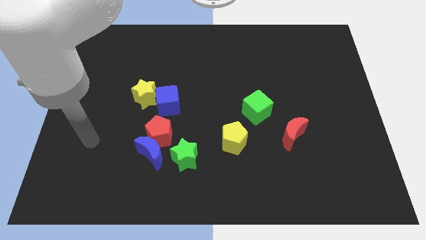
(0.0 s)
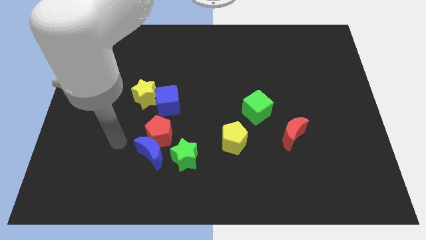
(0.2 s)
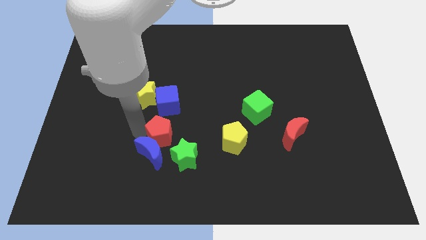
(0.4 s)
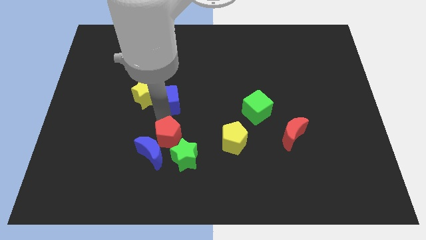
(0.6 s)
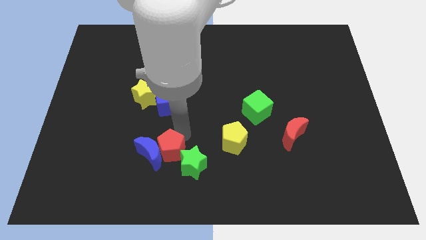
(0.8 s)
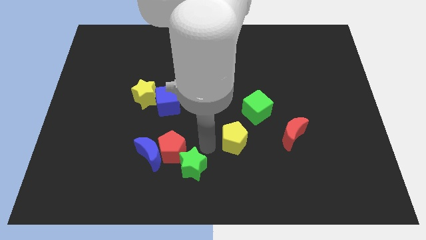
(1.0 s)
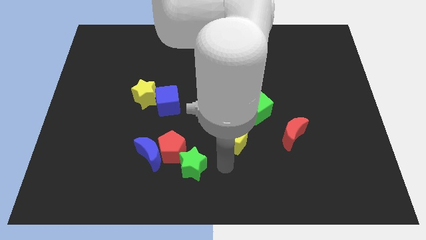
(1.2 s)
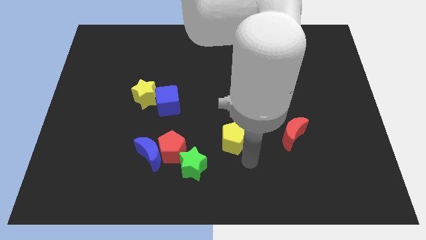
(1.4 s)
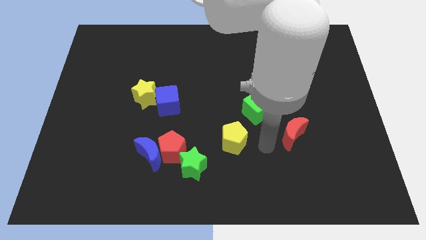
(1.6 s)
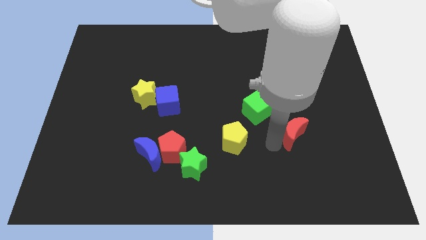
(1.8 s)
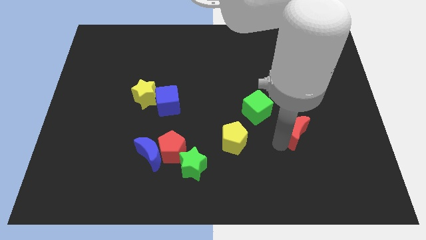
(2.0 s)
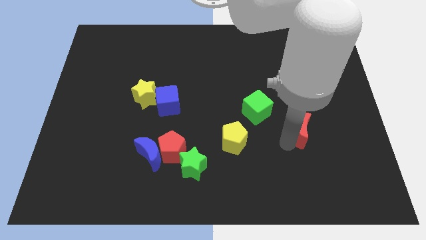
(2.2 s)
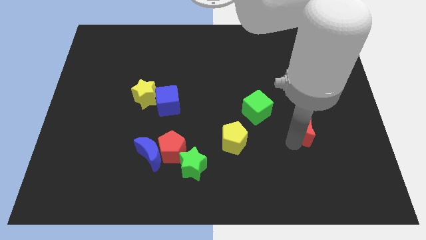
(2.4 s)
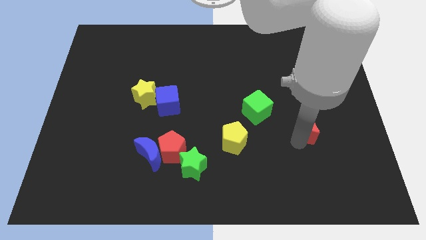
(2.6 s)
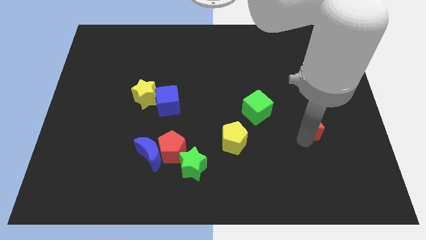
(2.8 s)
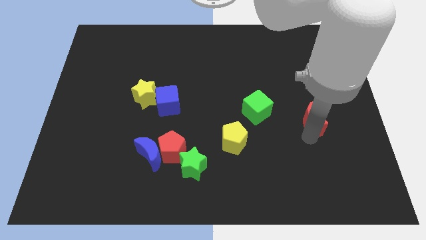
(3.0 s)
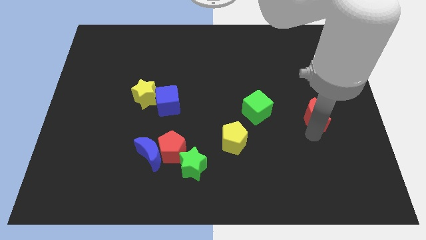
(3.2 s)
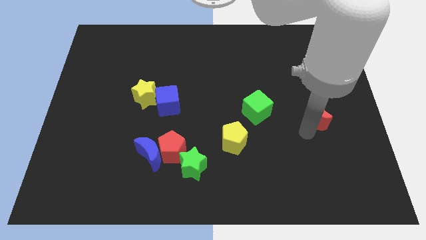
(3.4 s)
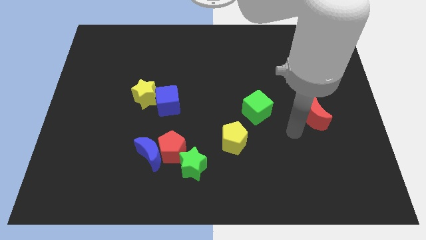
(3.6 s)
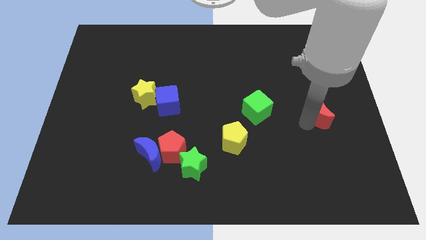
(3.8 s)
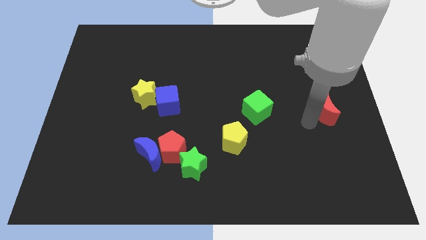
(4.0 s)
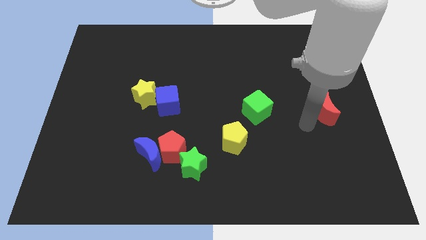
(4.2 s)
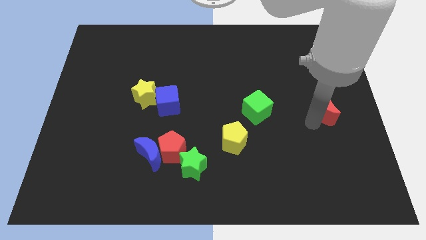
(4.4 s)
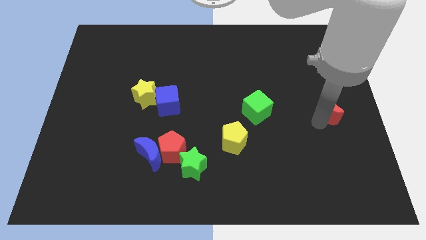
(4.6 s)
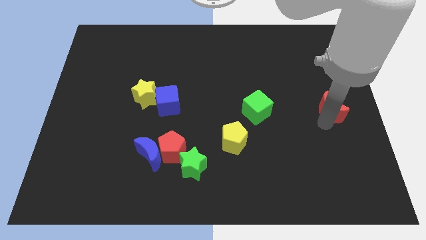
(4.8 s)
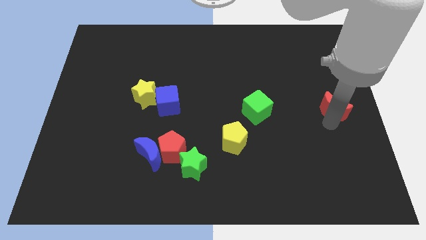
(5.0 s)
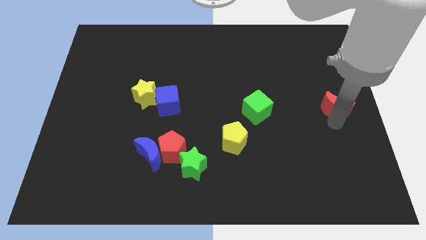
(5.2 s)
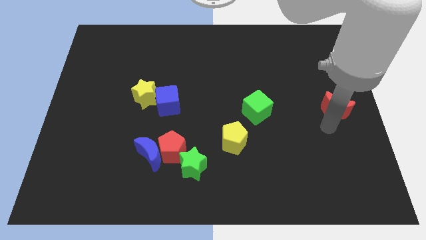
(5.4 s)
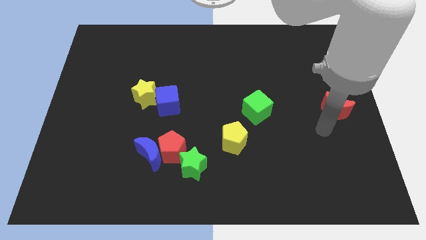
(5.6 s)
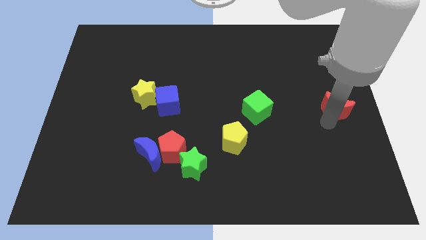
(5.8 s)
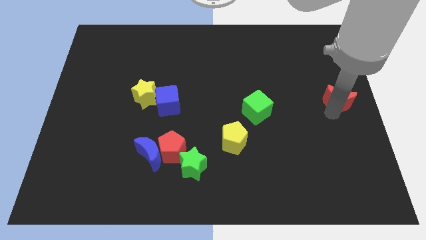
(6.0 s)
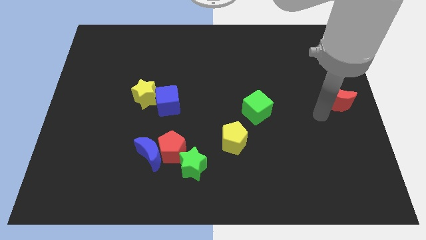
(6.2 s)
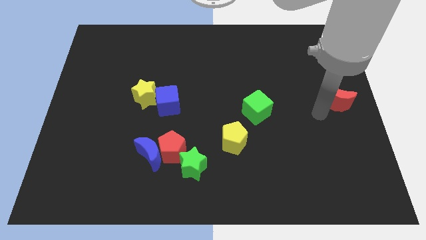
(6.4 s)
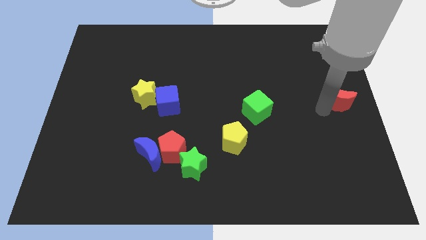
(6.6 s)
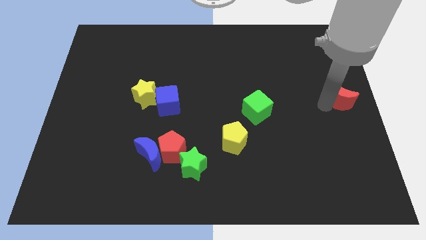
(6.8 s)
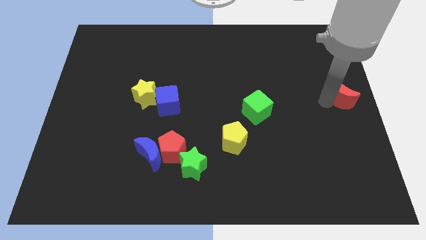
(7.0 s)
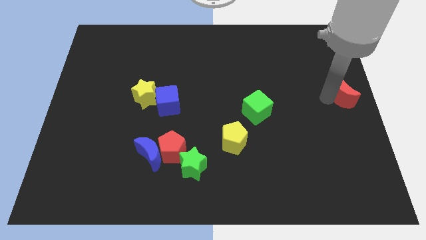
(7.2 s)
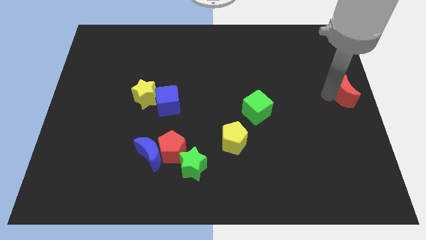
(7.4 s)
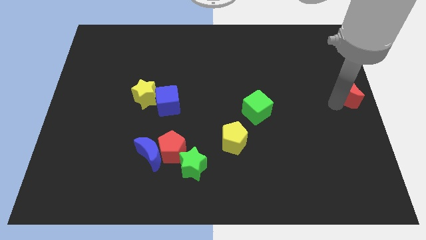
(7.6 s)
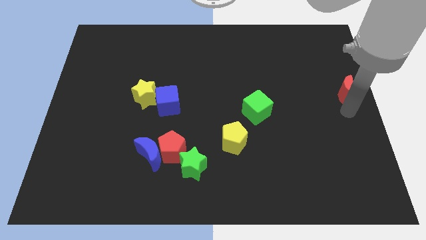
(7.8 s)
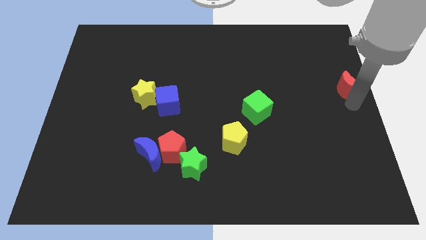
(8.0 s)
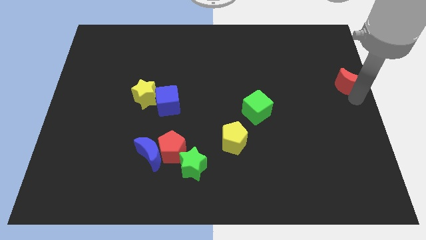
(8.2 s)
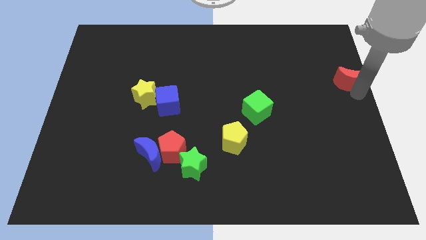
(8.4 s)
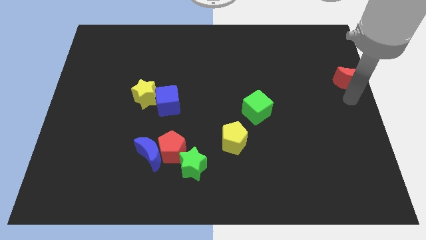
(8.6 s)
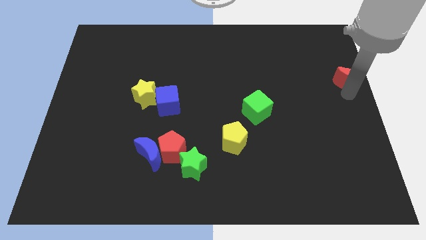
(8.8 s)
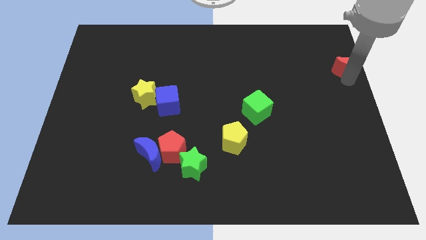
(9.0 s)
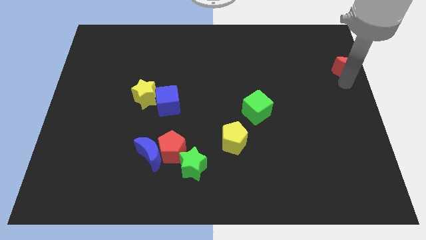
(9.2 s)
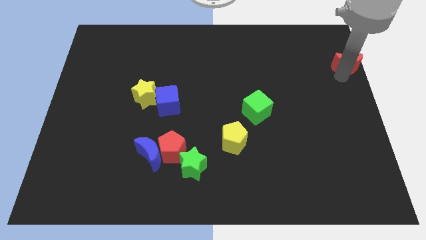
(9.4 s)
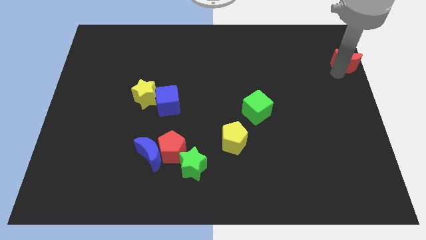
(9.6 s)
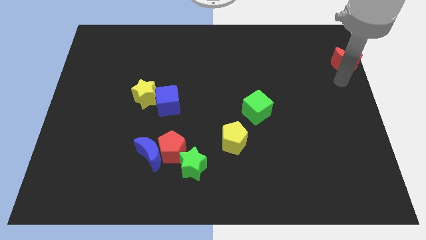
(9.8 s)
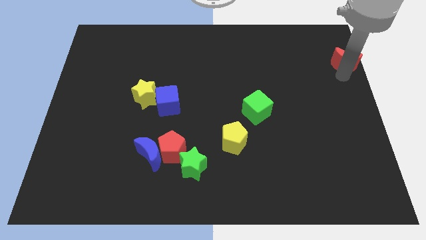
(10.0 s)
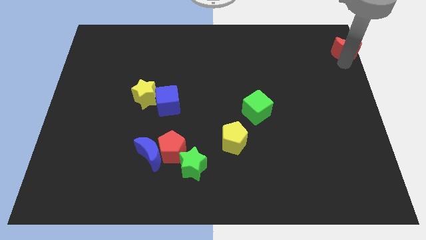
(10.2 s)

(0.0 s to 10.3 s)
push the red moon to the top right corner

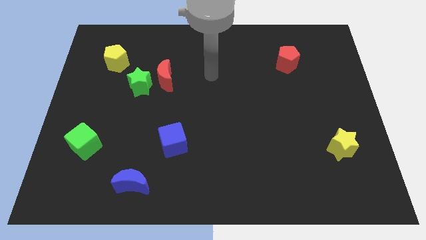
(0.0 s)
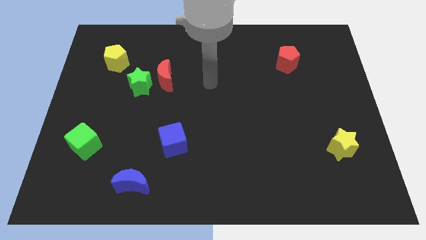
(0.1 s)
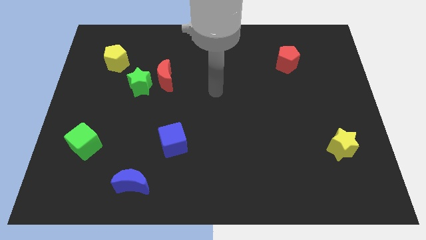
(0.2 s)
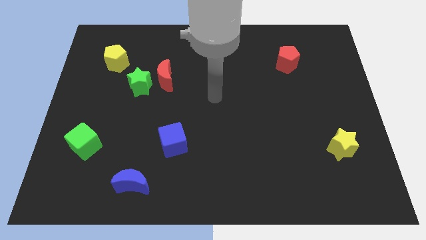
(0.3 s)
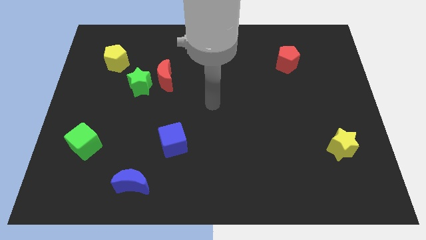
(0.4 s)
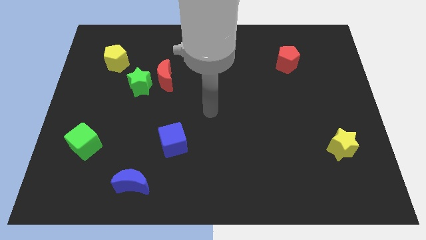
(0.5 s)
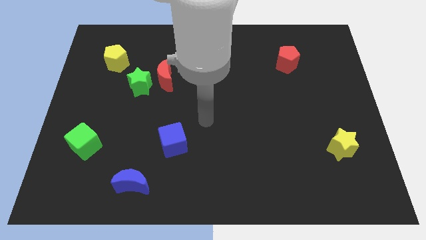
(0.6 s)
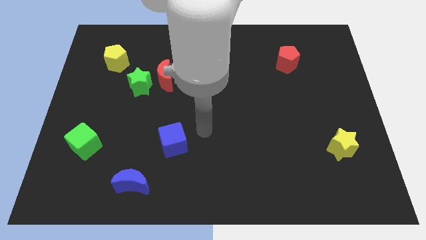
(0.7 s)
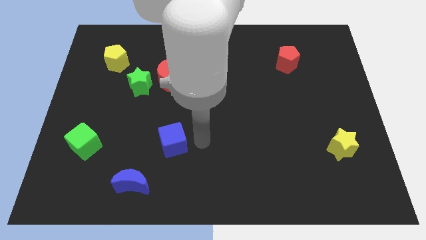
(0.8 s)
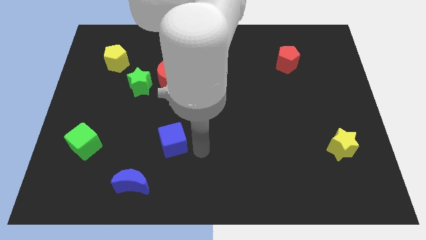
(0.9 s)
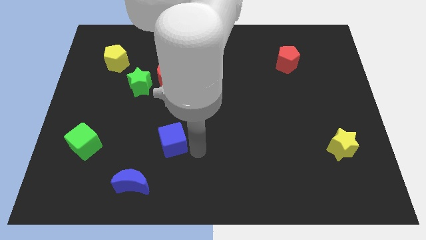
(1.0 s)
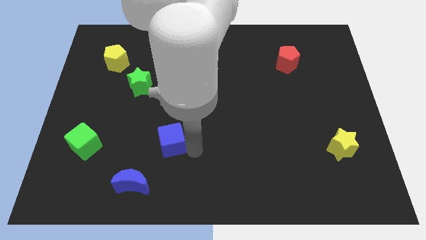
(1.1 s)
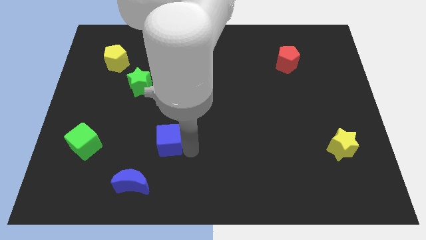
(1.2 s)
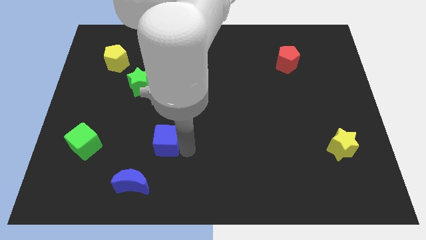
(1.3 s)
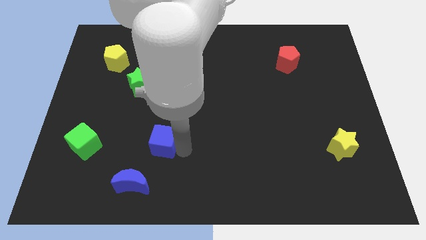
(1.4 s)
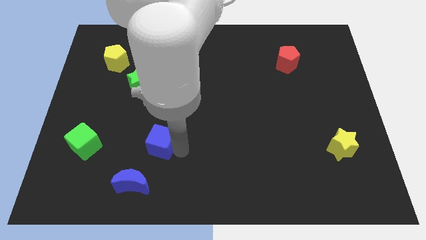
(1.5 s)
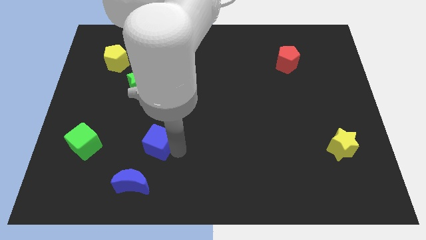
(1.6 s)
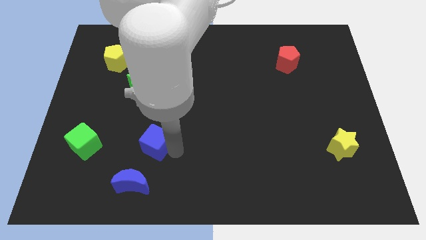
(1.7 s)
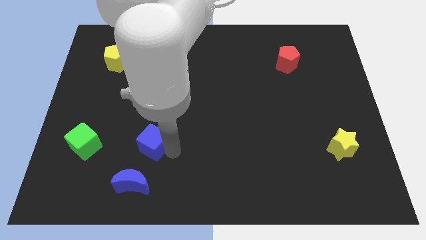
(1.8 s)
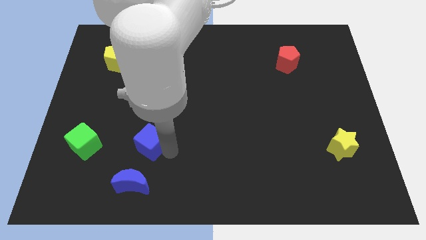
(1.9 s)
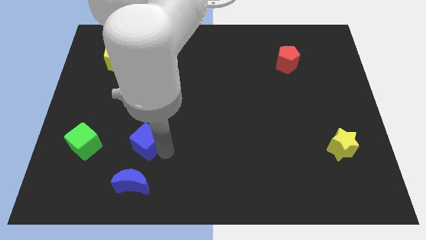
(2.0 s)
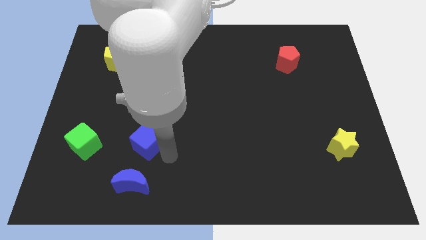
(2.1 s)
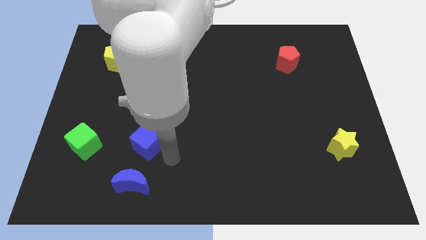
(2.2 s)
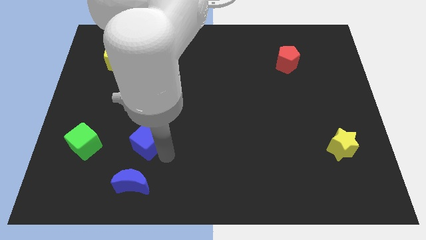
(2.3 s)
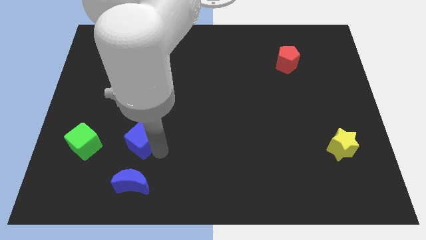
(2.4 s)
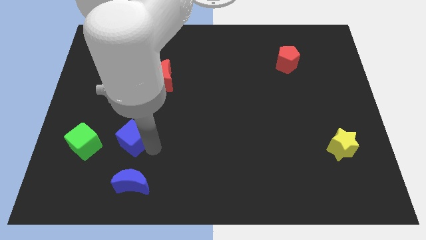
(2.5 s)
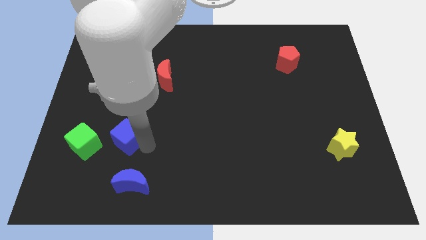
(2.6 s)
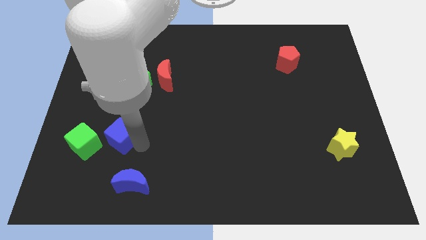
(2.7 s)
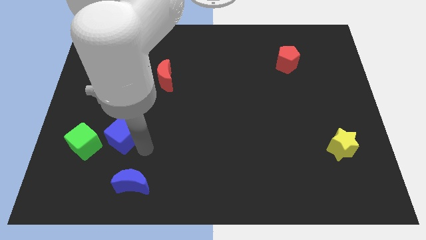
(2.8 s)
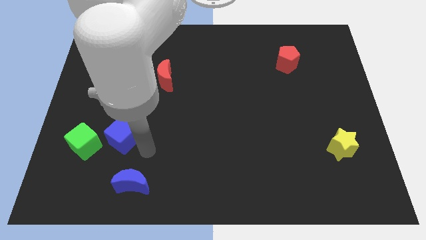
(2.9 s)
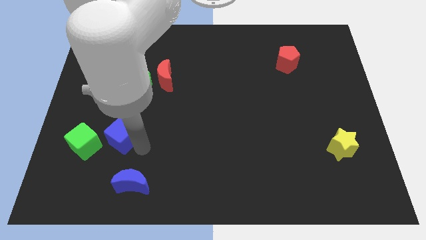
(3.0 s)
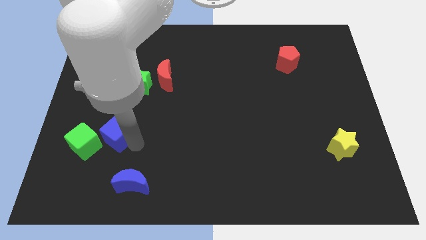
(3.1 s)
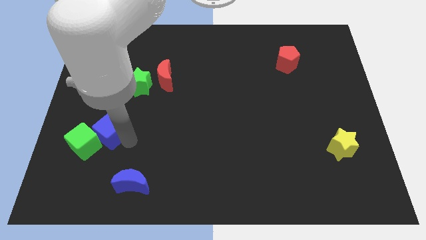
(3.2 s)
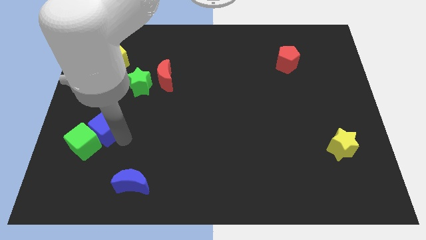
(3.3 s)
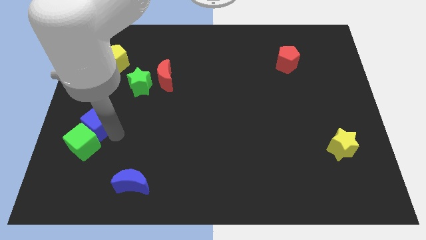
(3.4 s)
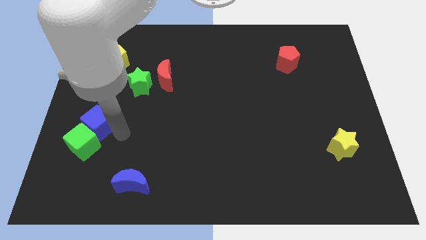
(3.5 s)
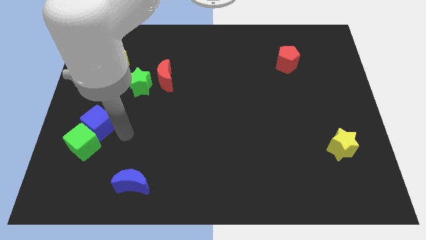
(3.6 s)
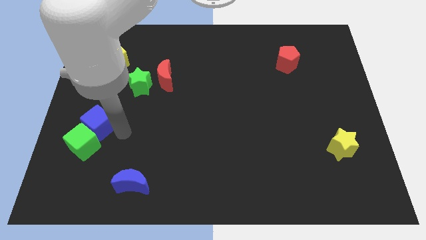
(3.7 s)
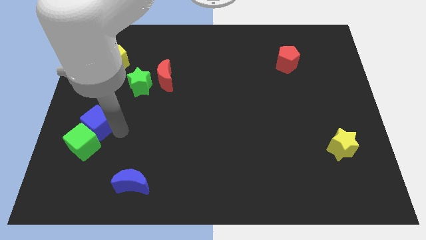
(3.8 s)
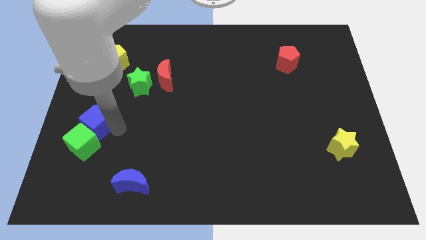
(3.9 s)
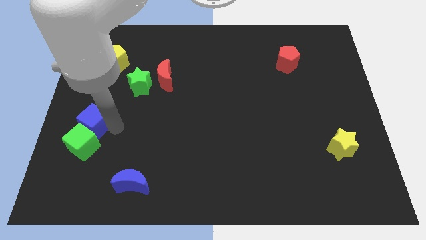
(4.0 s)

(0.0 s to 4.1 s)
move the blue cube to the left side of the board
